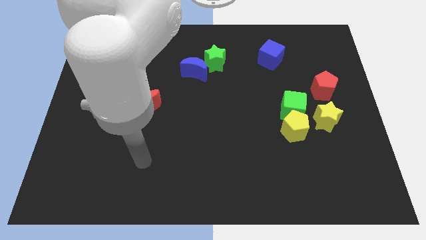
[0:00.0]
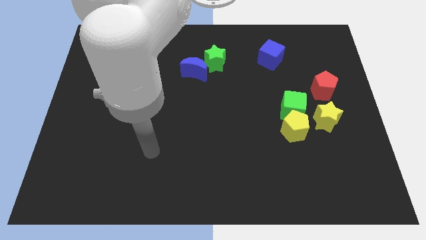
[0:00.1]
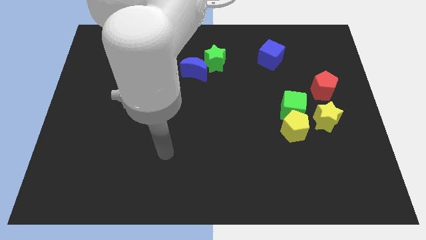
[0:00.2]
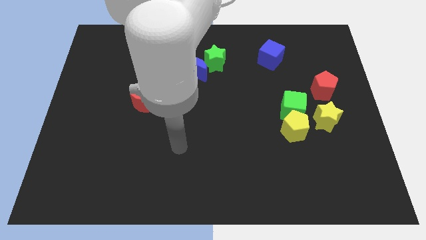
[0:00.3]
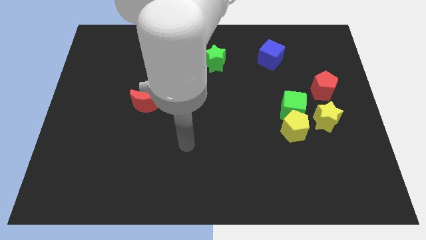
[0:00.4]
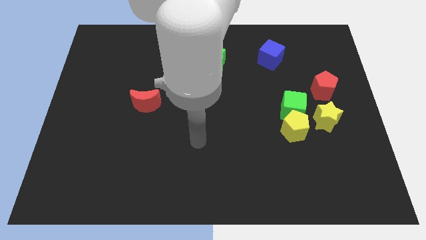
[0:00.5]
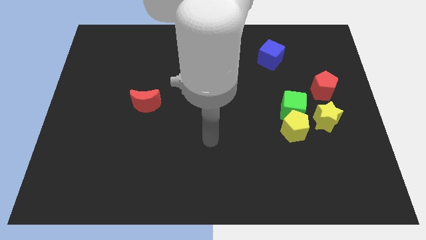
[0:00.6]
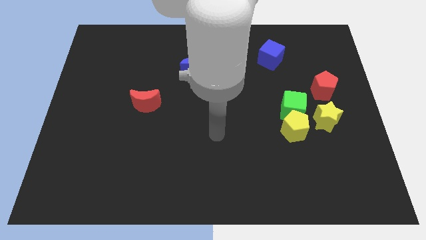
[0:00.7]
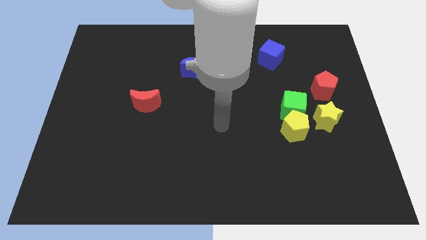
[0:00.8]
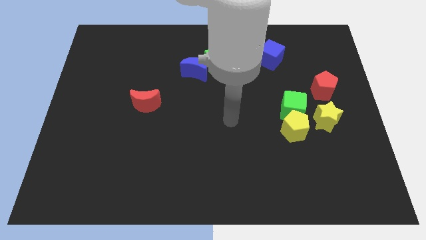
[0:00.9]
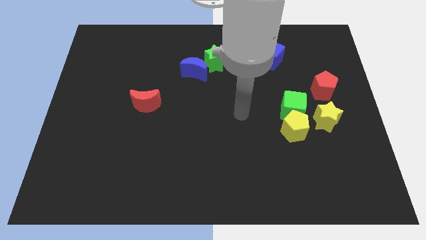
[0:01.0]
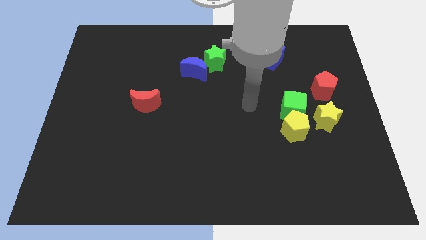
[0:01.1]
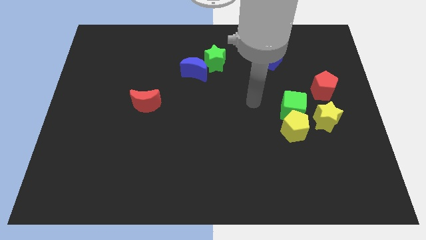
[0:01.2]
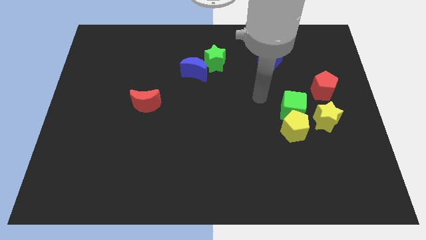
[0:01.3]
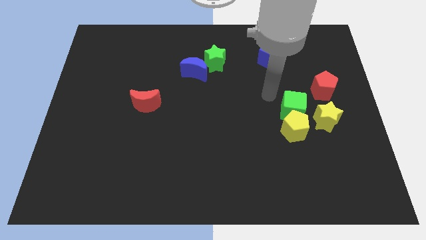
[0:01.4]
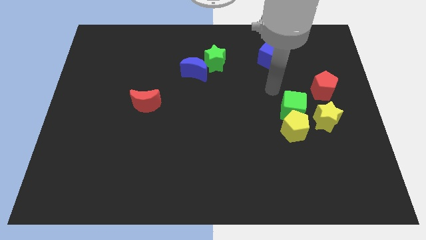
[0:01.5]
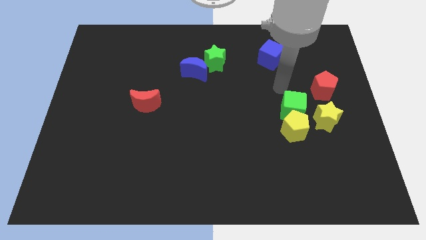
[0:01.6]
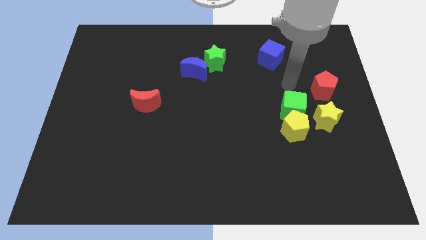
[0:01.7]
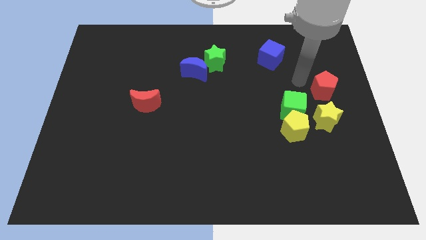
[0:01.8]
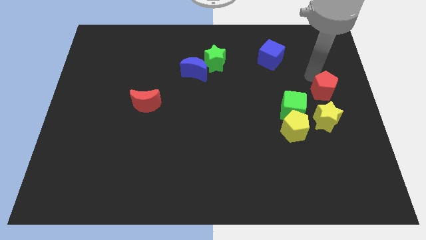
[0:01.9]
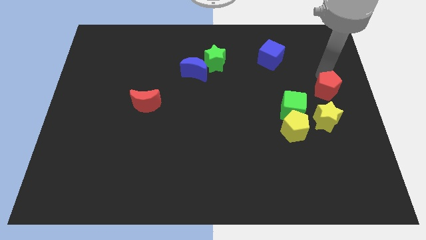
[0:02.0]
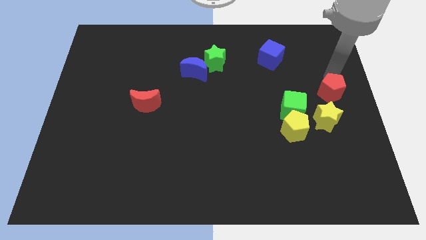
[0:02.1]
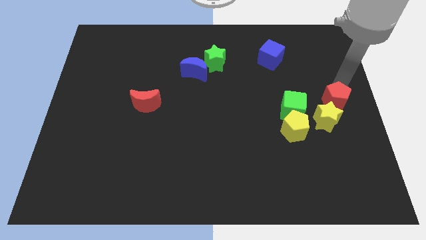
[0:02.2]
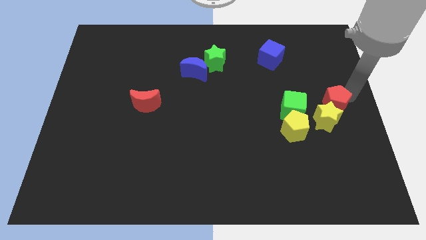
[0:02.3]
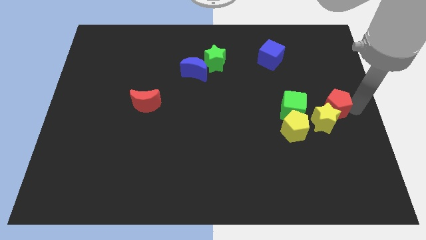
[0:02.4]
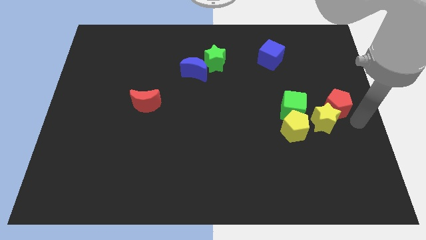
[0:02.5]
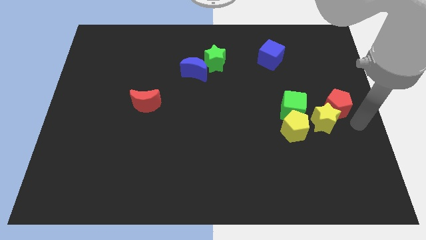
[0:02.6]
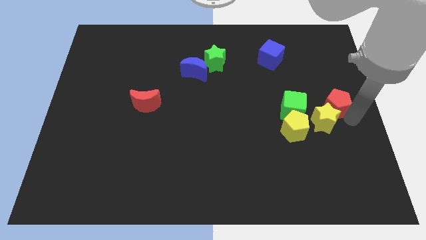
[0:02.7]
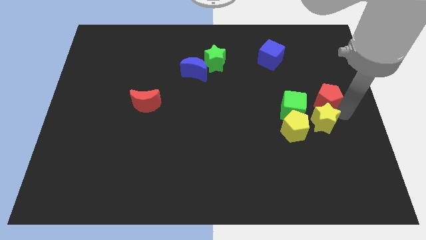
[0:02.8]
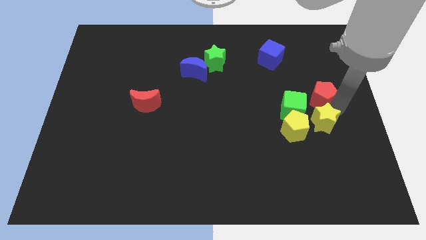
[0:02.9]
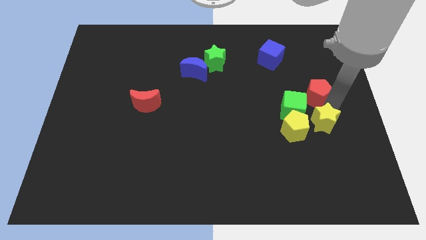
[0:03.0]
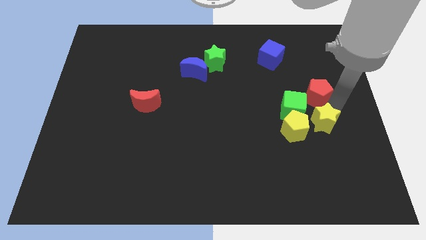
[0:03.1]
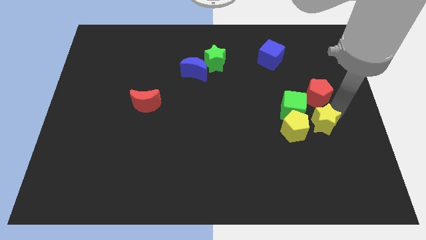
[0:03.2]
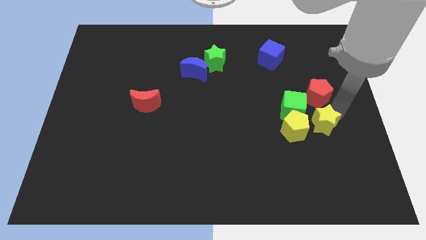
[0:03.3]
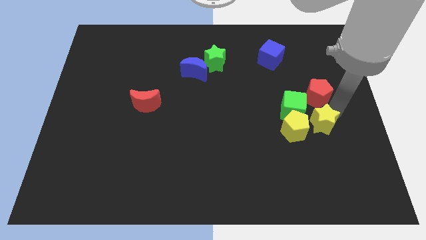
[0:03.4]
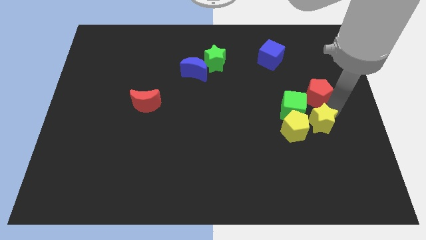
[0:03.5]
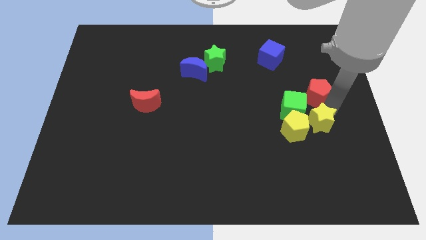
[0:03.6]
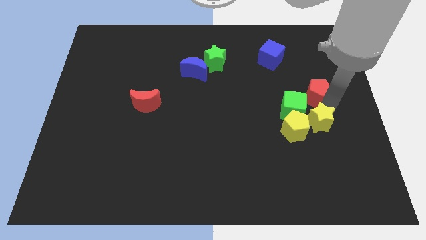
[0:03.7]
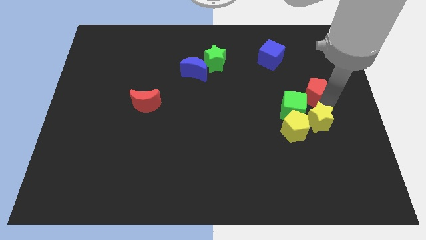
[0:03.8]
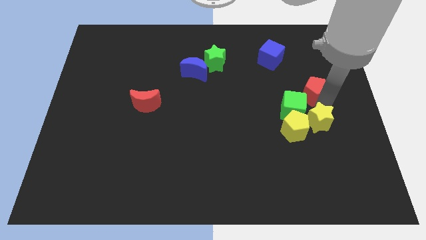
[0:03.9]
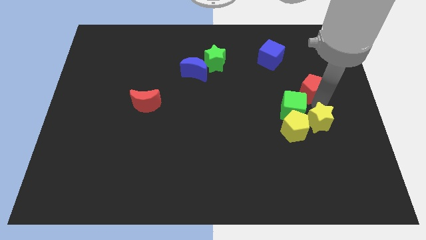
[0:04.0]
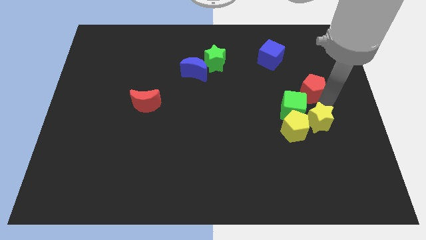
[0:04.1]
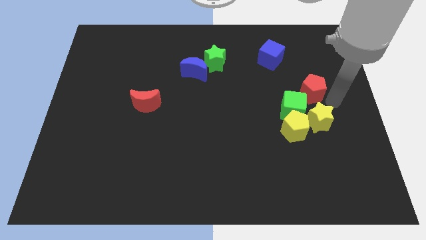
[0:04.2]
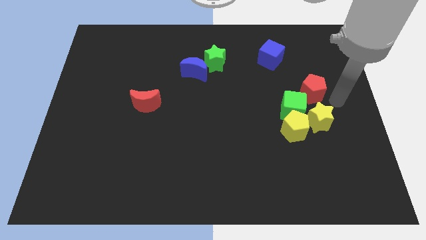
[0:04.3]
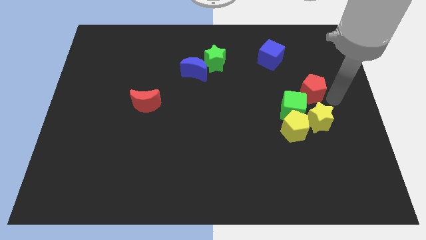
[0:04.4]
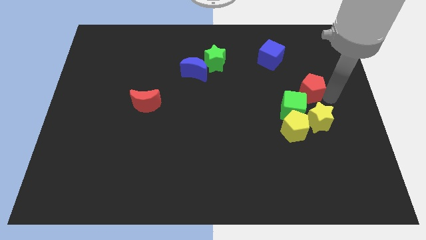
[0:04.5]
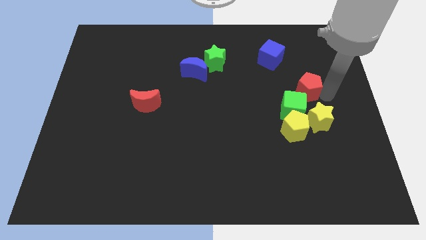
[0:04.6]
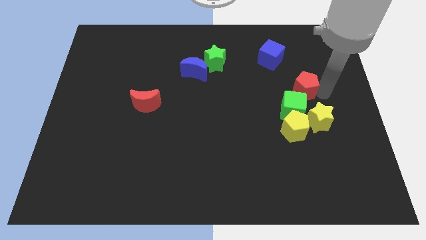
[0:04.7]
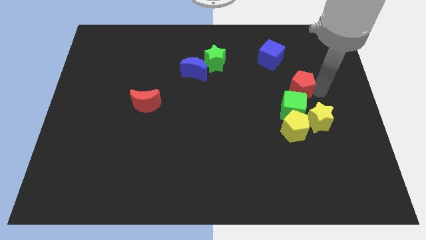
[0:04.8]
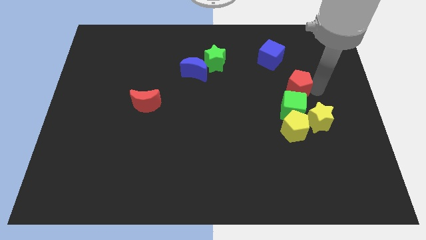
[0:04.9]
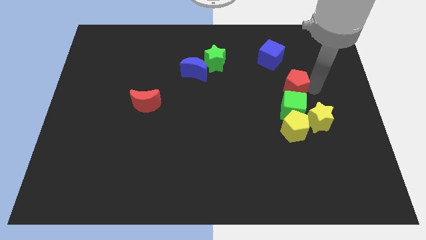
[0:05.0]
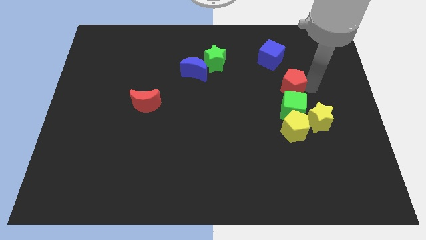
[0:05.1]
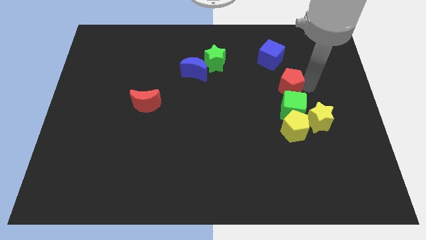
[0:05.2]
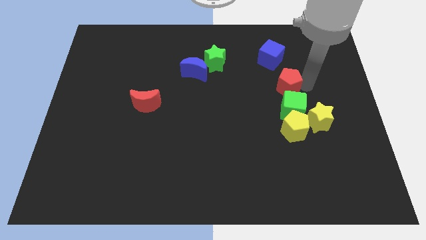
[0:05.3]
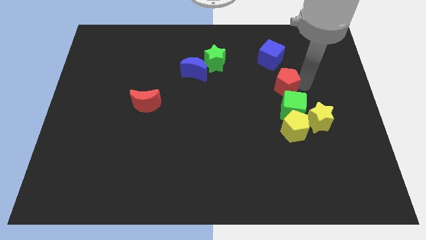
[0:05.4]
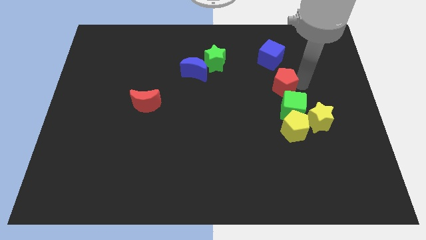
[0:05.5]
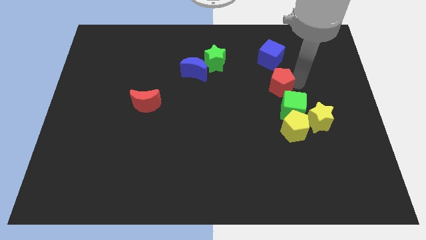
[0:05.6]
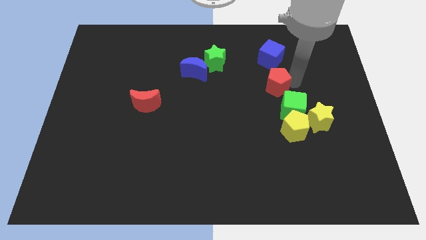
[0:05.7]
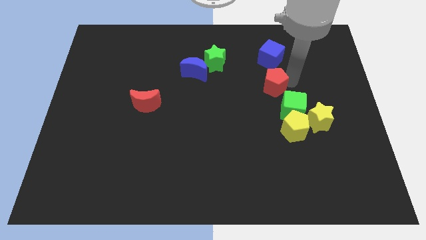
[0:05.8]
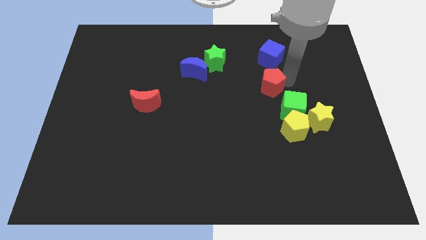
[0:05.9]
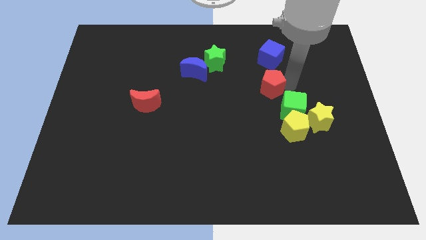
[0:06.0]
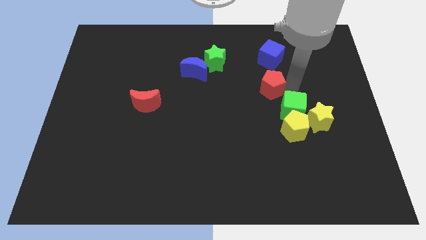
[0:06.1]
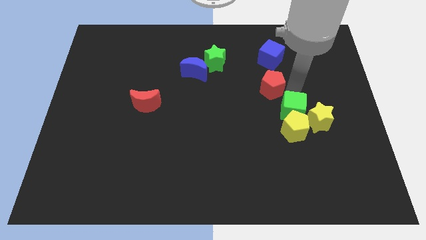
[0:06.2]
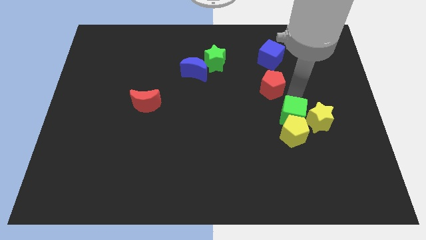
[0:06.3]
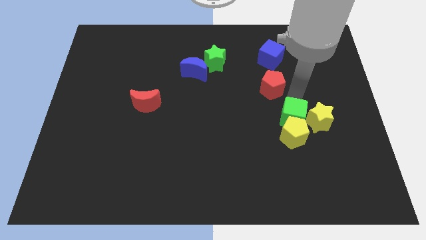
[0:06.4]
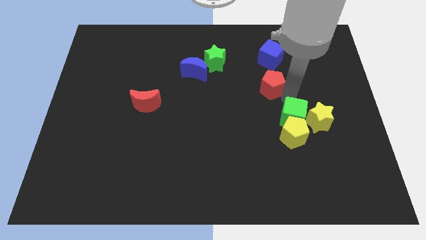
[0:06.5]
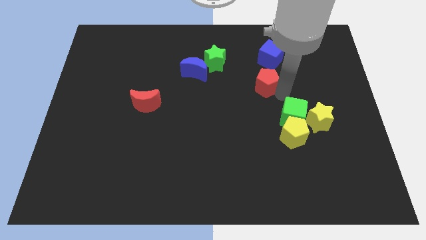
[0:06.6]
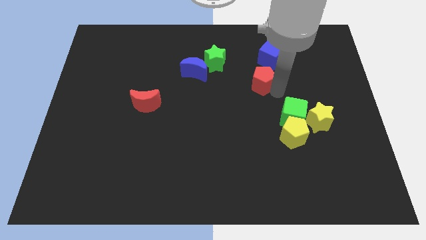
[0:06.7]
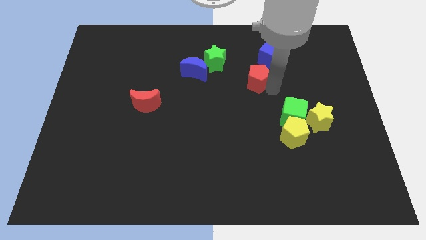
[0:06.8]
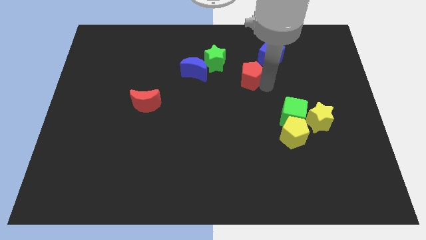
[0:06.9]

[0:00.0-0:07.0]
push the red pentagon to the right of the blue moon

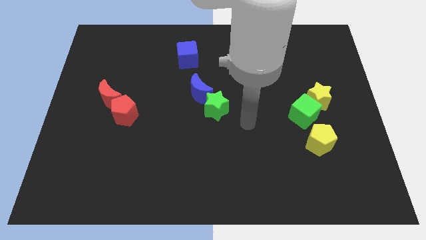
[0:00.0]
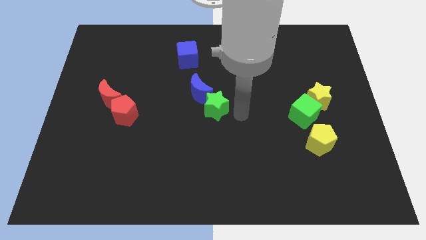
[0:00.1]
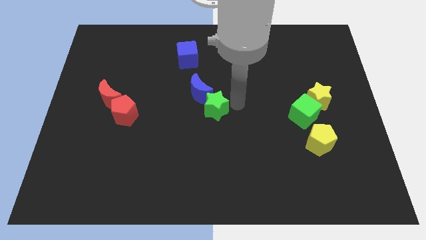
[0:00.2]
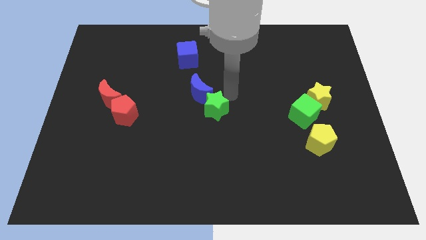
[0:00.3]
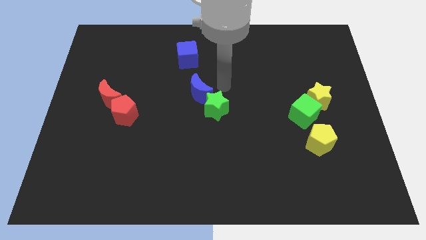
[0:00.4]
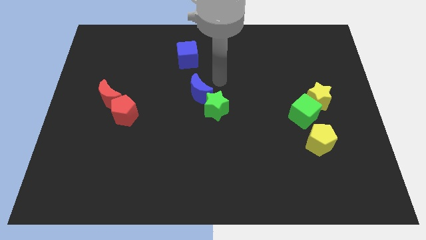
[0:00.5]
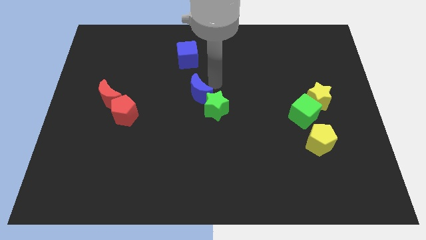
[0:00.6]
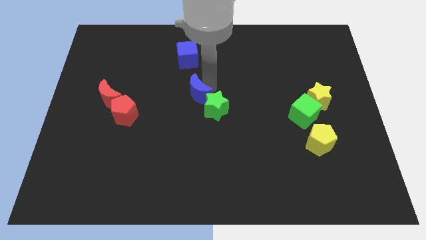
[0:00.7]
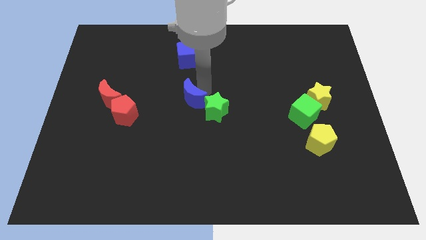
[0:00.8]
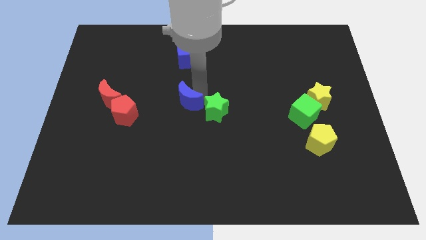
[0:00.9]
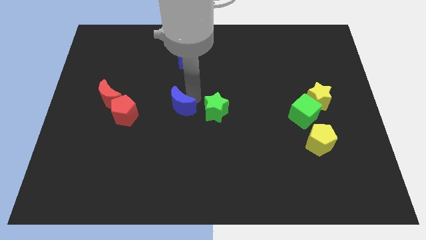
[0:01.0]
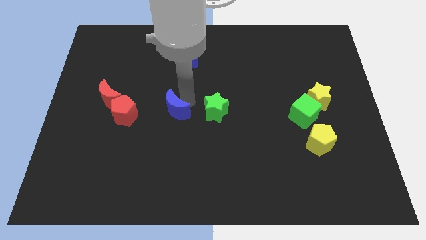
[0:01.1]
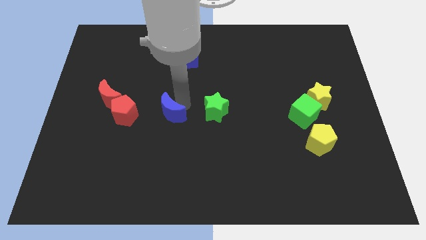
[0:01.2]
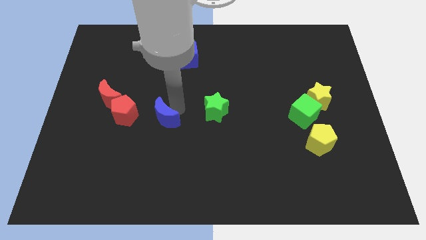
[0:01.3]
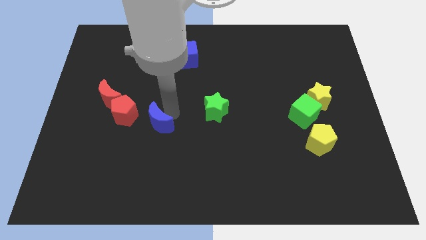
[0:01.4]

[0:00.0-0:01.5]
push the blue moon to the bottom right side of the red pentagon
